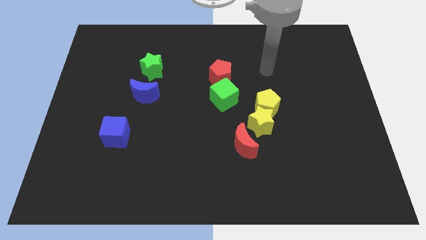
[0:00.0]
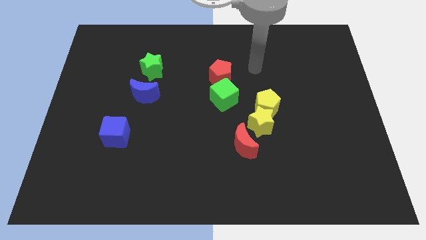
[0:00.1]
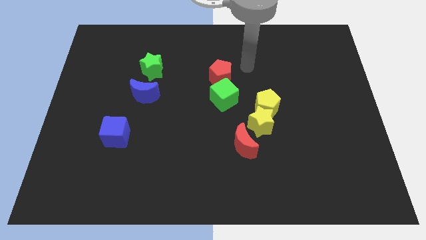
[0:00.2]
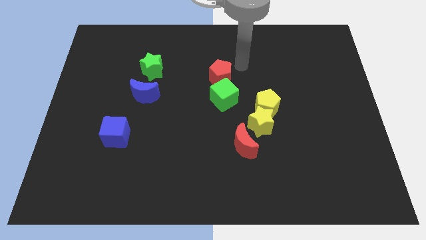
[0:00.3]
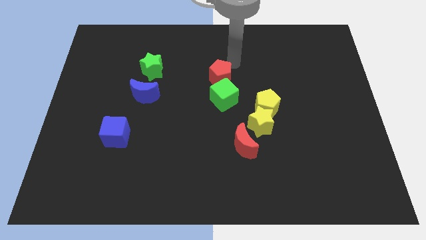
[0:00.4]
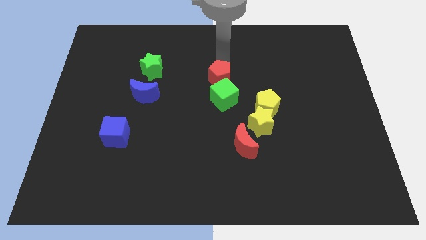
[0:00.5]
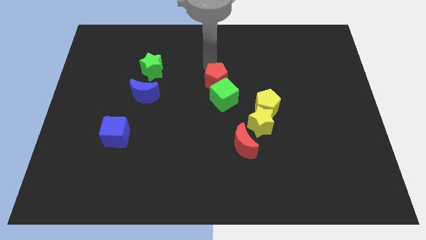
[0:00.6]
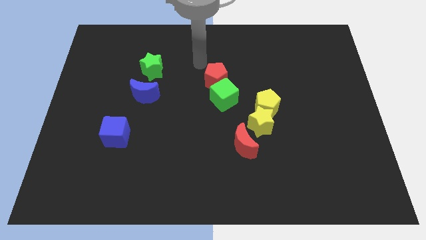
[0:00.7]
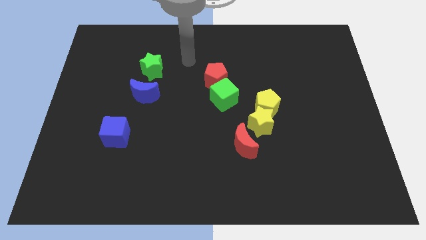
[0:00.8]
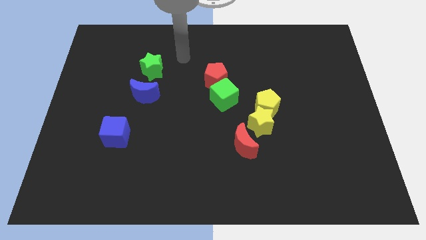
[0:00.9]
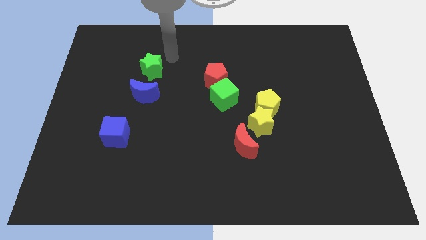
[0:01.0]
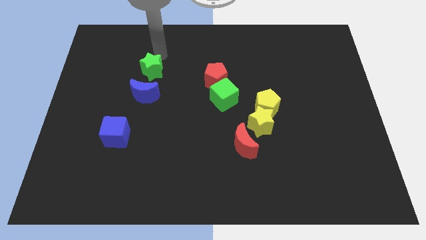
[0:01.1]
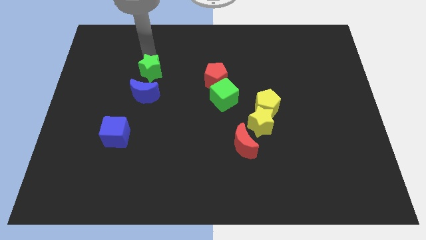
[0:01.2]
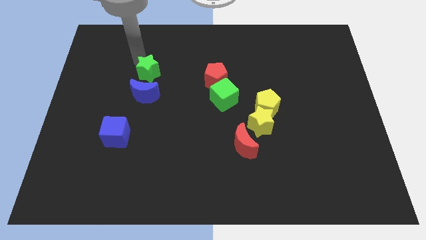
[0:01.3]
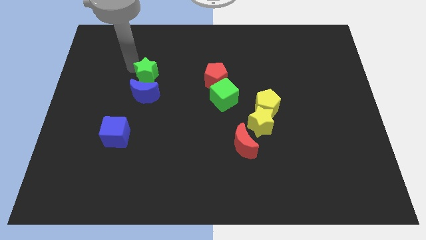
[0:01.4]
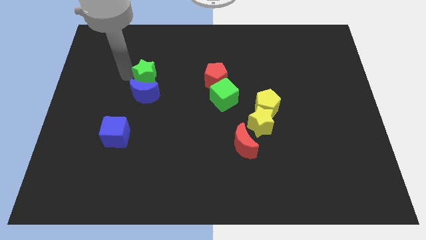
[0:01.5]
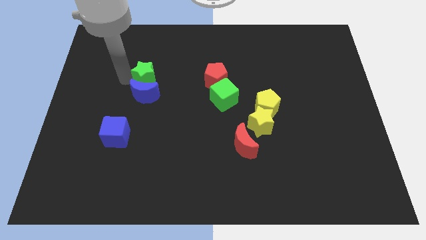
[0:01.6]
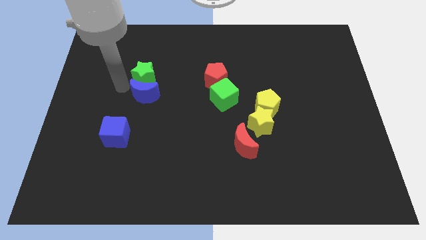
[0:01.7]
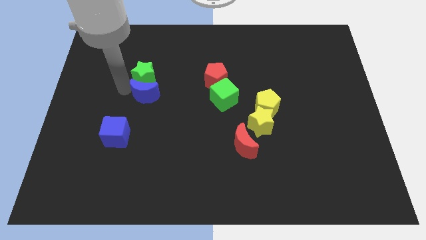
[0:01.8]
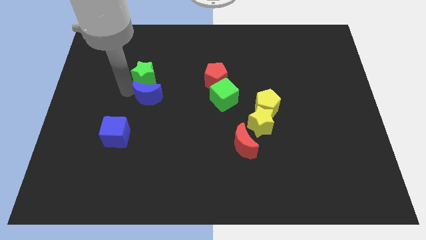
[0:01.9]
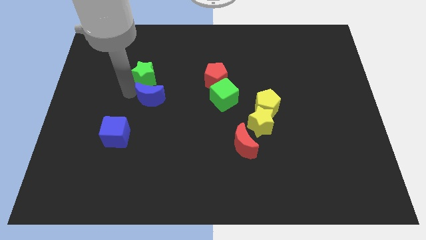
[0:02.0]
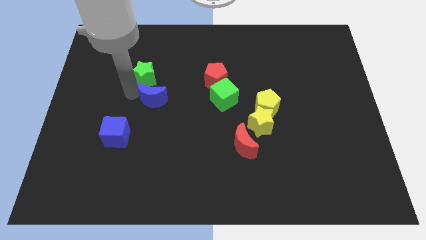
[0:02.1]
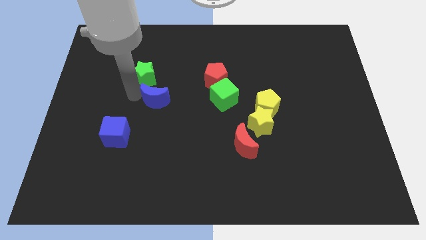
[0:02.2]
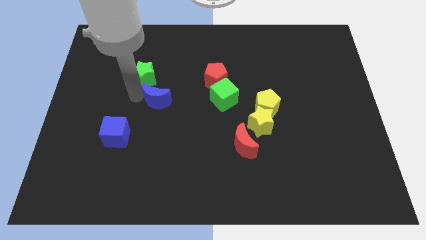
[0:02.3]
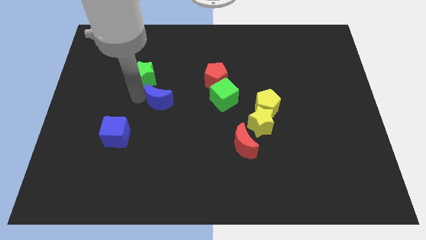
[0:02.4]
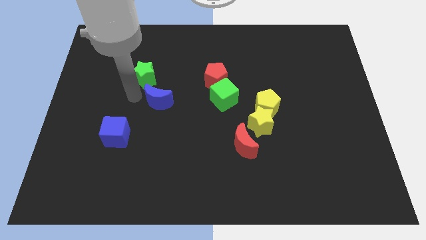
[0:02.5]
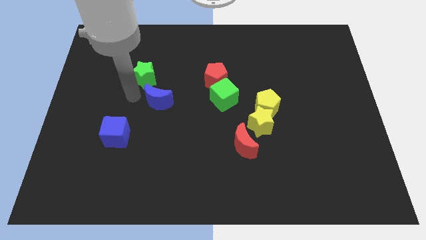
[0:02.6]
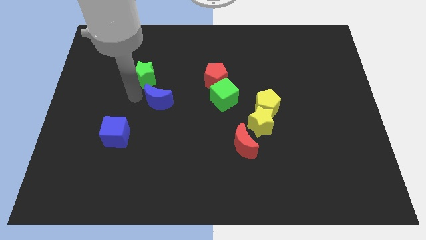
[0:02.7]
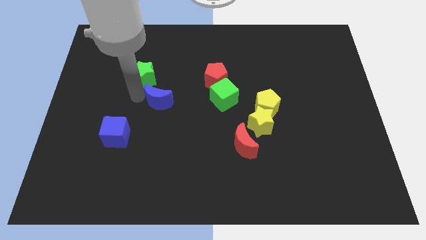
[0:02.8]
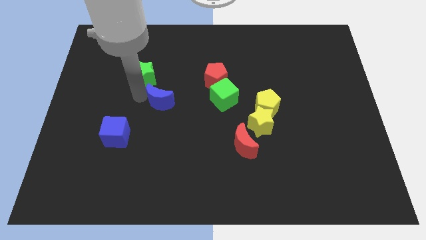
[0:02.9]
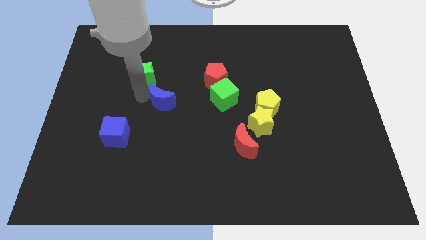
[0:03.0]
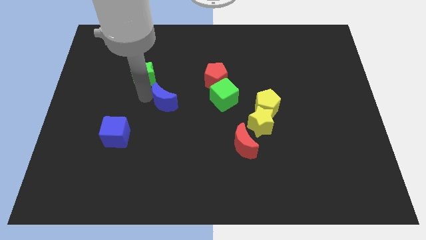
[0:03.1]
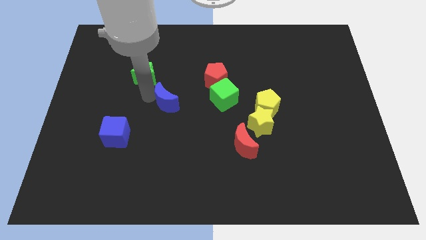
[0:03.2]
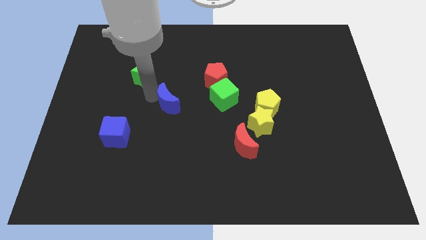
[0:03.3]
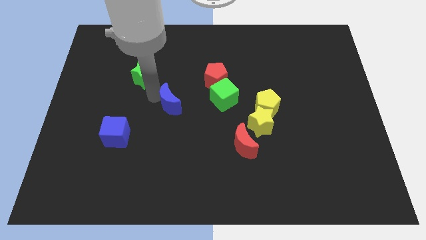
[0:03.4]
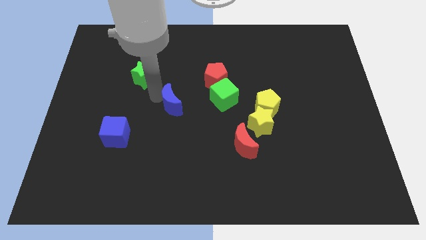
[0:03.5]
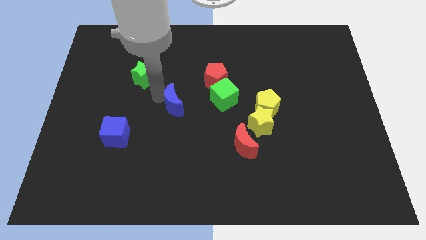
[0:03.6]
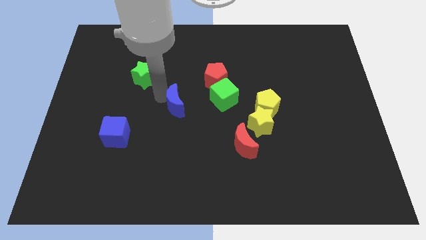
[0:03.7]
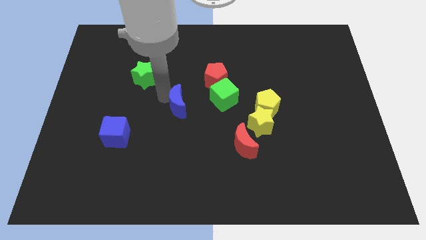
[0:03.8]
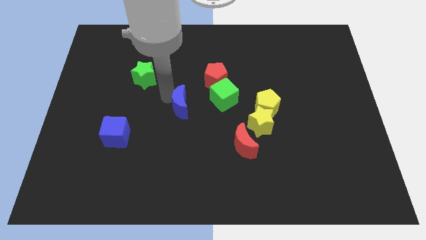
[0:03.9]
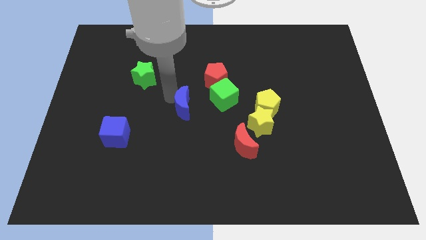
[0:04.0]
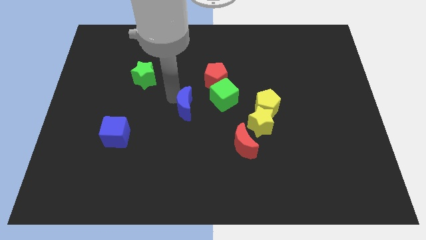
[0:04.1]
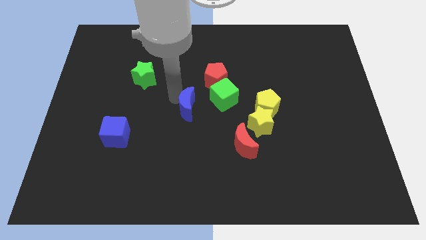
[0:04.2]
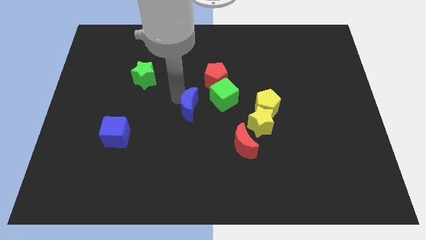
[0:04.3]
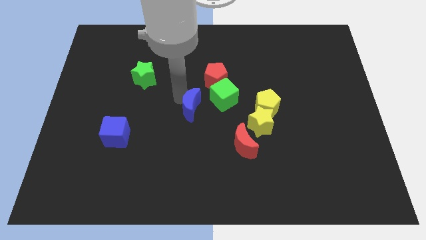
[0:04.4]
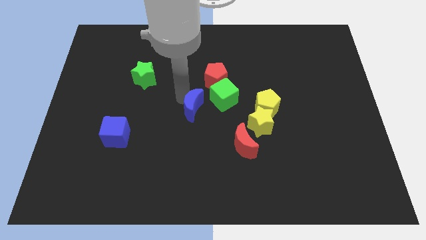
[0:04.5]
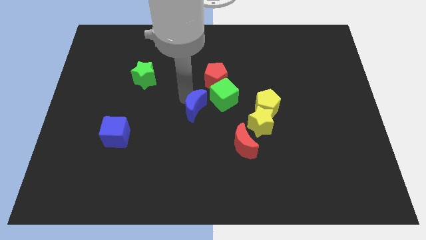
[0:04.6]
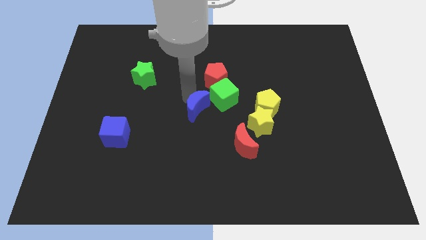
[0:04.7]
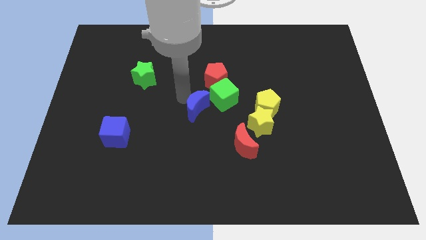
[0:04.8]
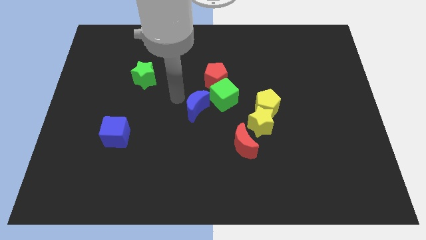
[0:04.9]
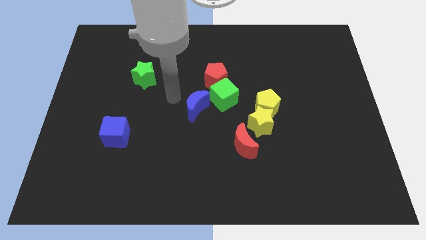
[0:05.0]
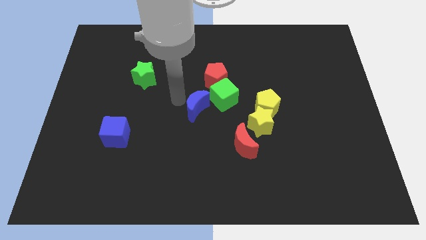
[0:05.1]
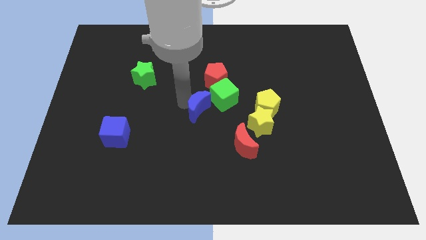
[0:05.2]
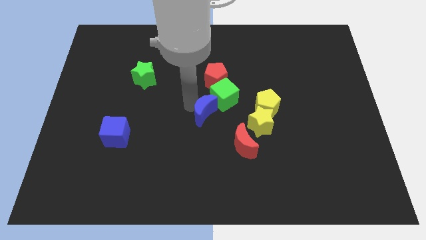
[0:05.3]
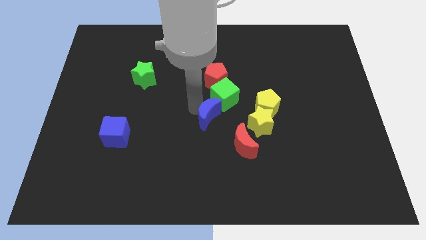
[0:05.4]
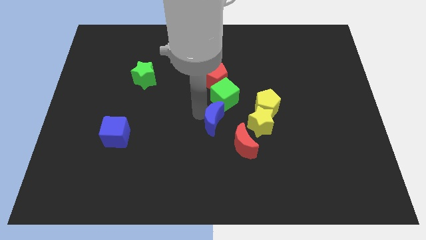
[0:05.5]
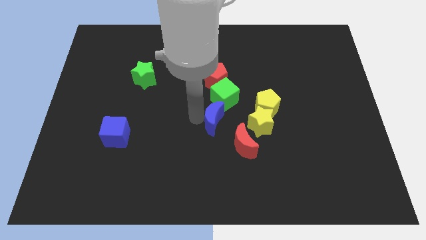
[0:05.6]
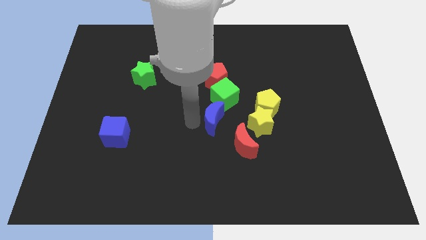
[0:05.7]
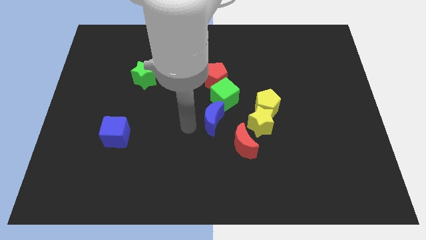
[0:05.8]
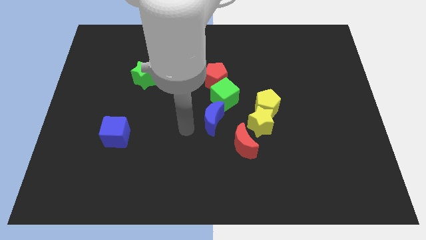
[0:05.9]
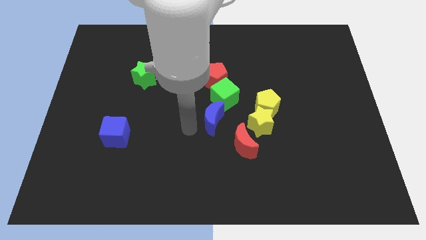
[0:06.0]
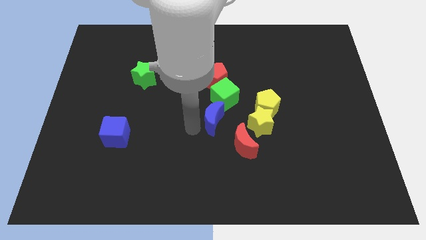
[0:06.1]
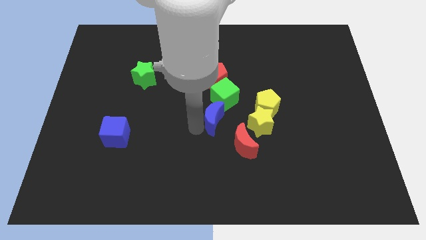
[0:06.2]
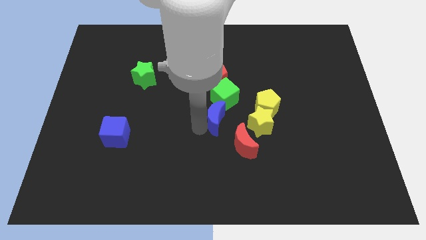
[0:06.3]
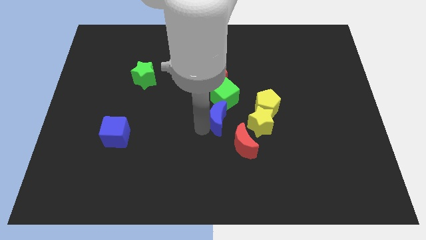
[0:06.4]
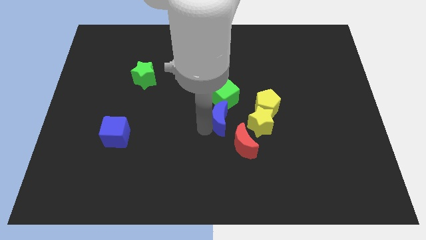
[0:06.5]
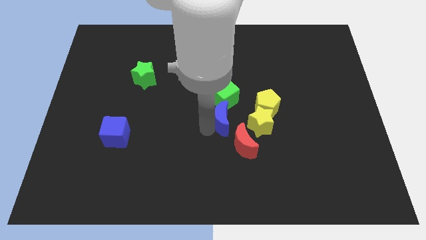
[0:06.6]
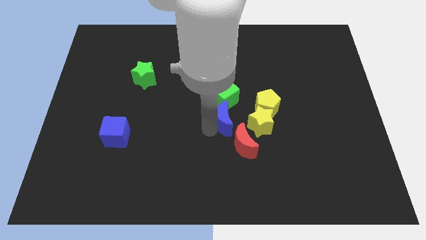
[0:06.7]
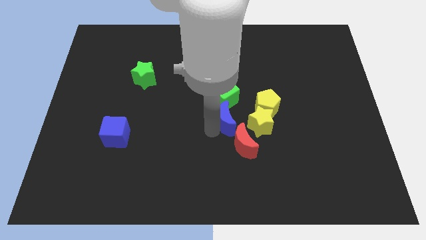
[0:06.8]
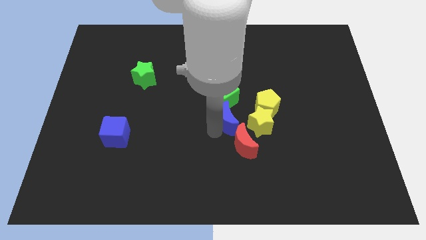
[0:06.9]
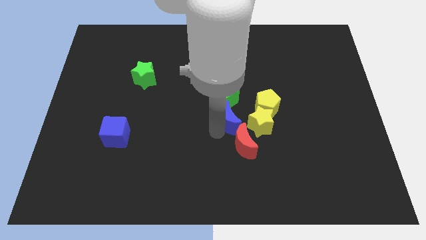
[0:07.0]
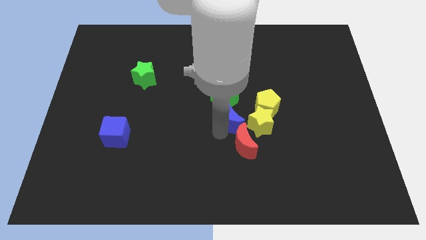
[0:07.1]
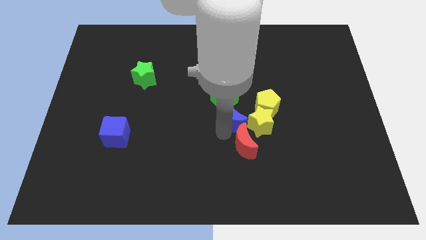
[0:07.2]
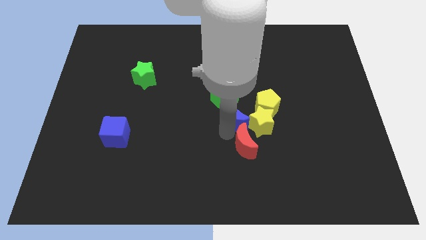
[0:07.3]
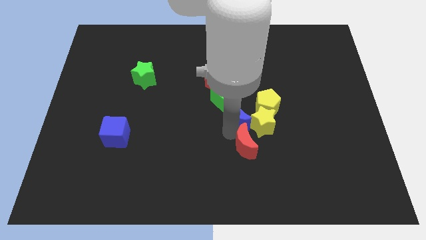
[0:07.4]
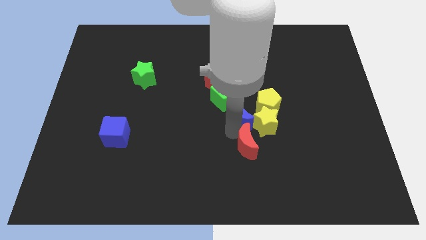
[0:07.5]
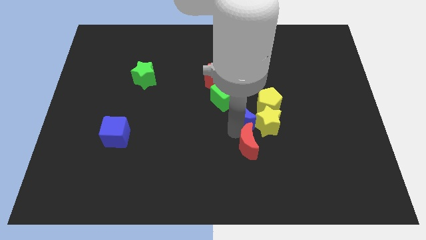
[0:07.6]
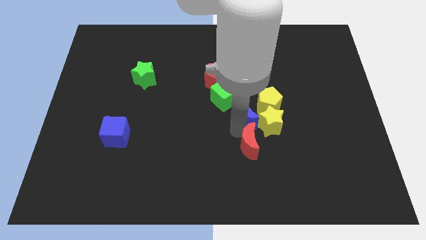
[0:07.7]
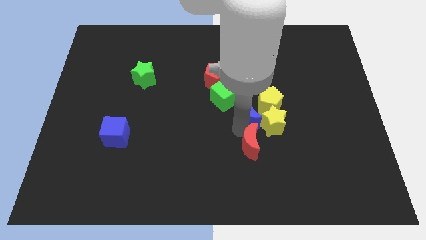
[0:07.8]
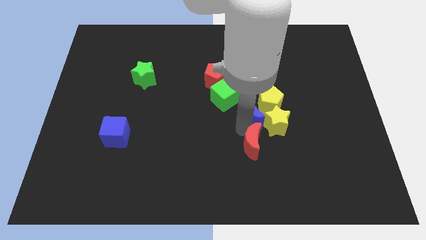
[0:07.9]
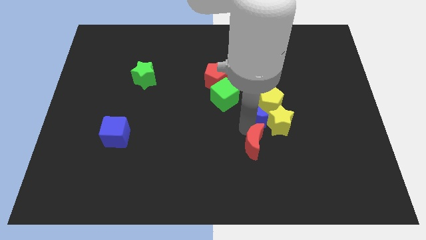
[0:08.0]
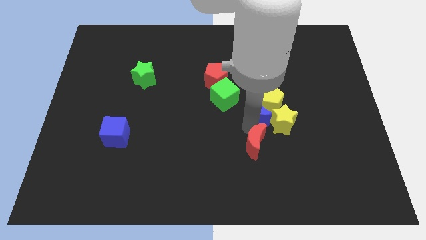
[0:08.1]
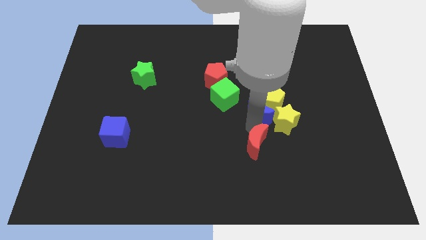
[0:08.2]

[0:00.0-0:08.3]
push the blue moon just right of the green cube
